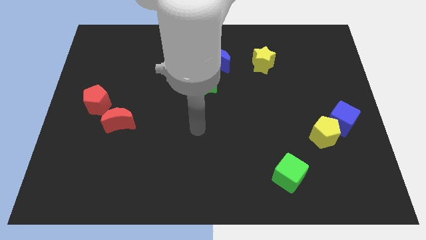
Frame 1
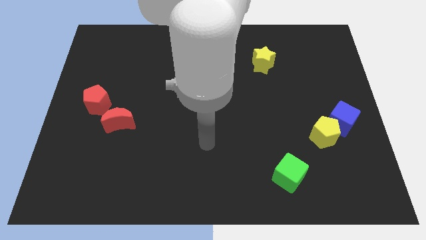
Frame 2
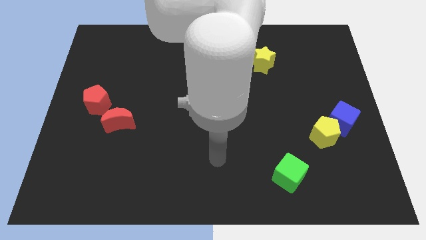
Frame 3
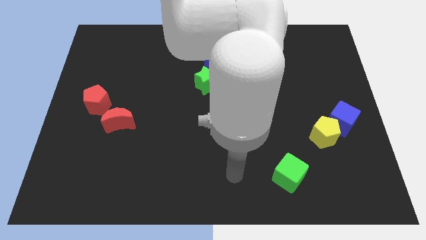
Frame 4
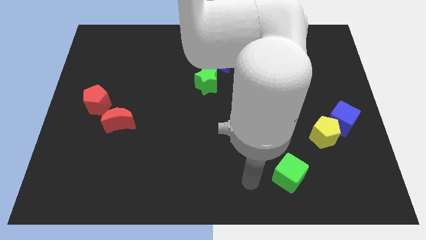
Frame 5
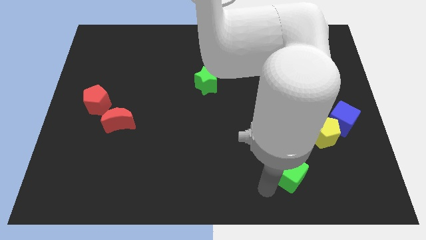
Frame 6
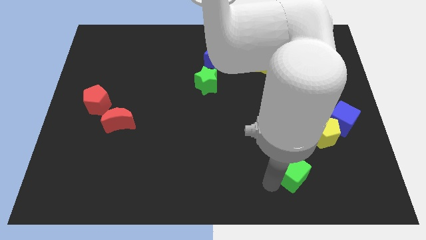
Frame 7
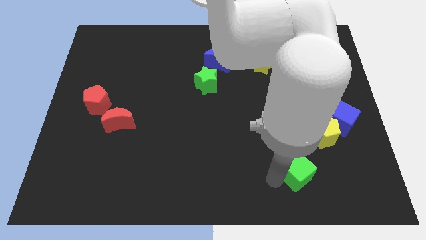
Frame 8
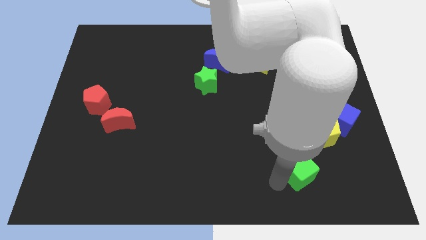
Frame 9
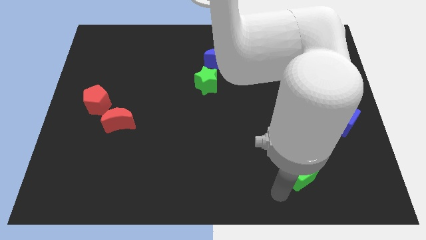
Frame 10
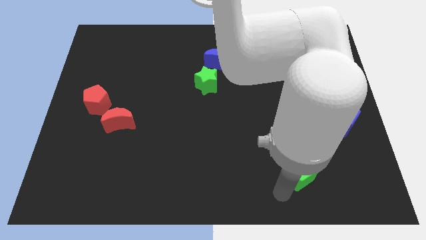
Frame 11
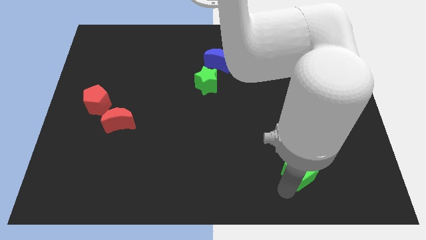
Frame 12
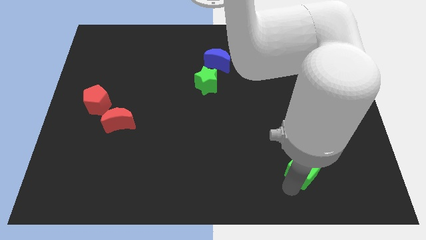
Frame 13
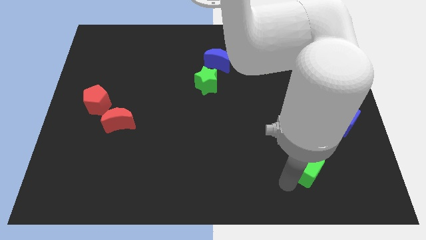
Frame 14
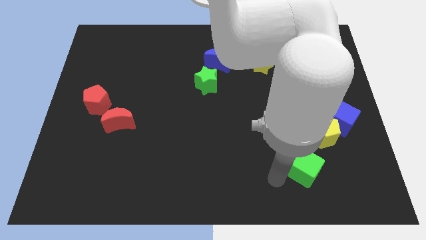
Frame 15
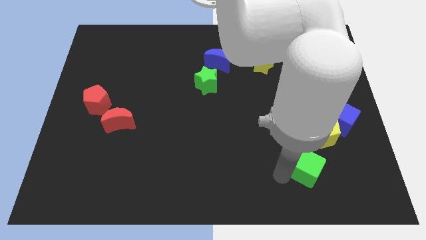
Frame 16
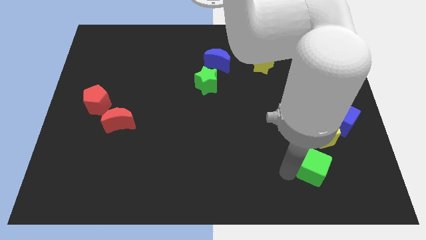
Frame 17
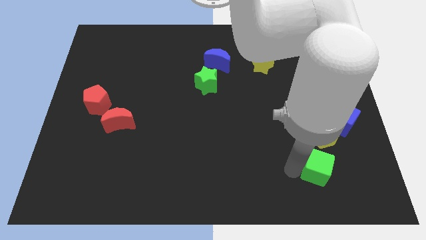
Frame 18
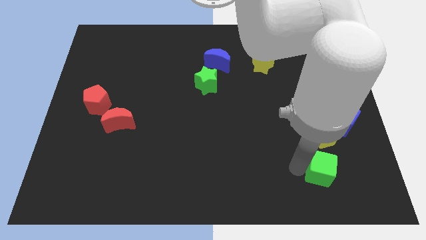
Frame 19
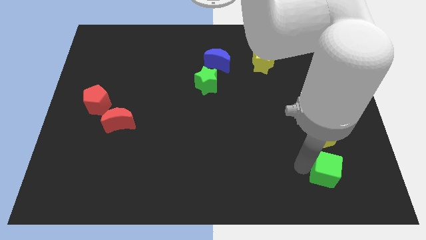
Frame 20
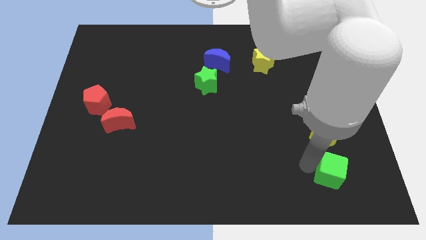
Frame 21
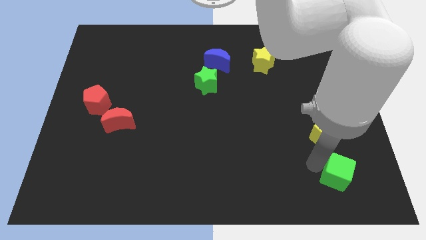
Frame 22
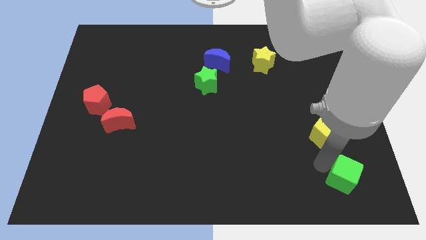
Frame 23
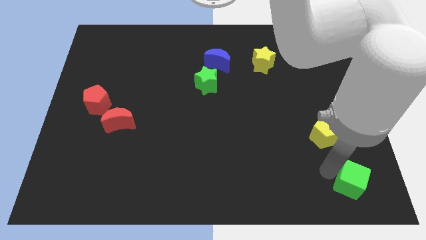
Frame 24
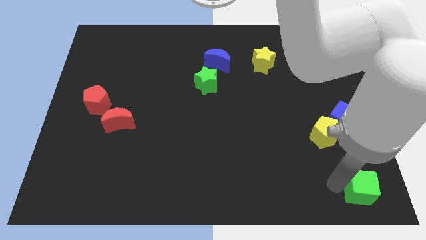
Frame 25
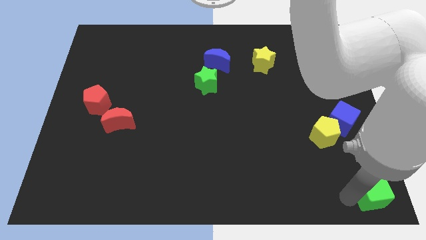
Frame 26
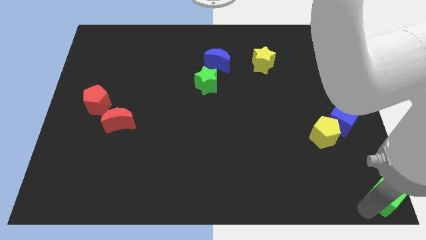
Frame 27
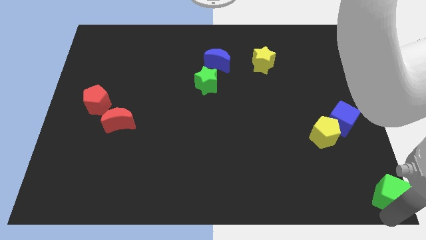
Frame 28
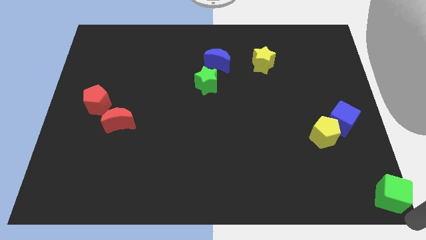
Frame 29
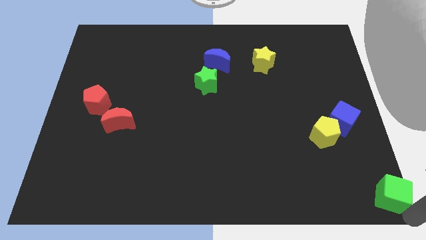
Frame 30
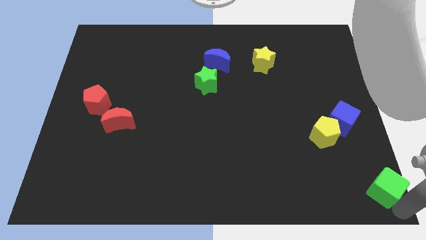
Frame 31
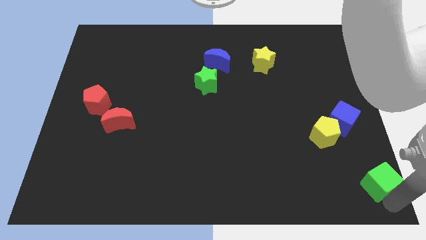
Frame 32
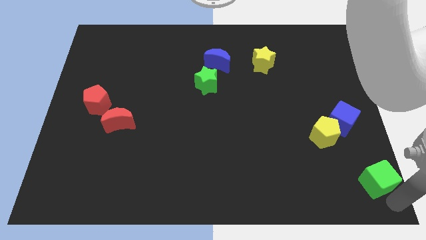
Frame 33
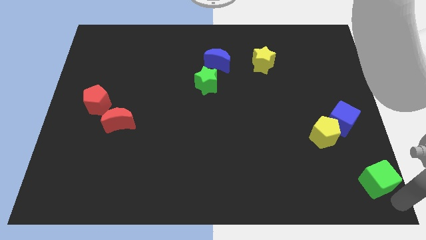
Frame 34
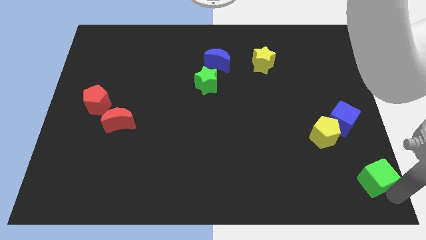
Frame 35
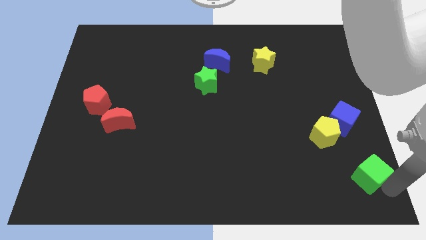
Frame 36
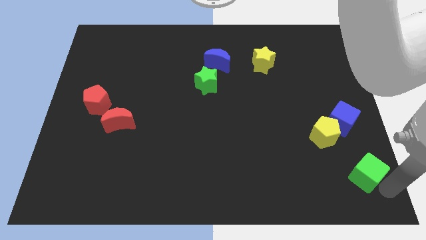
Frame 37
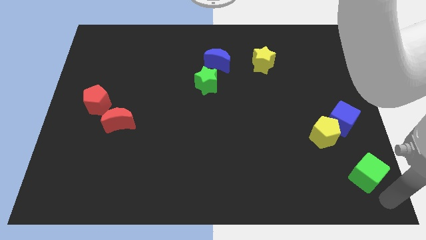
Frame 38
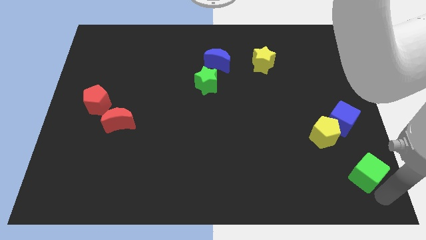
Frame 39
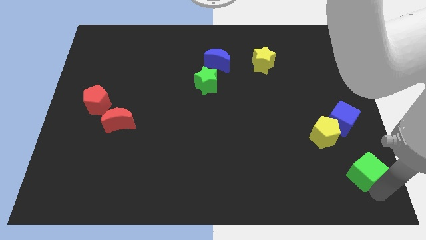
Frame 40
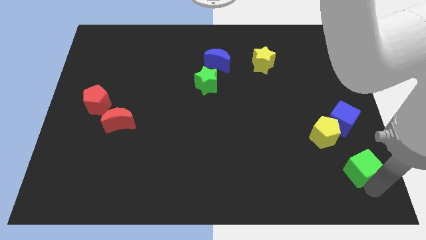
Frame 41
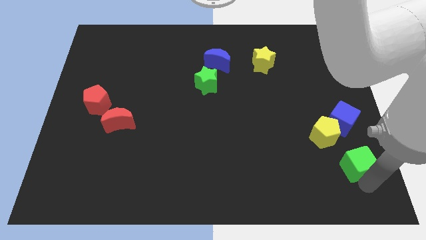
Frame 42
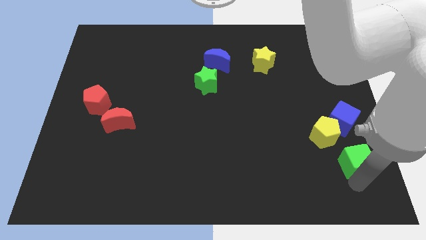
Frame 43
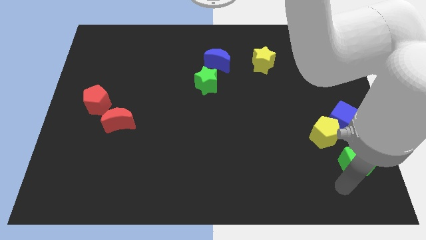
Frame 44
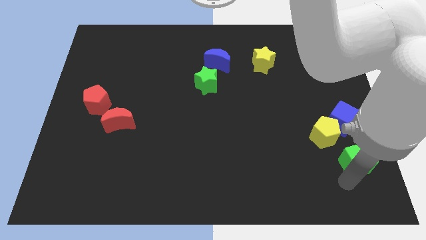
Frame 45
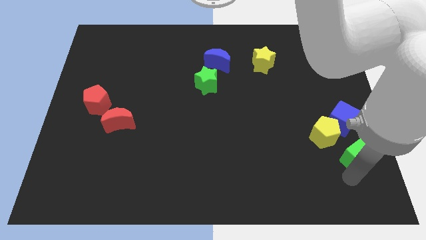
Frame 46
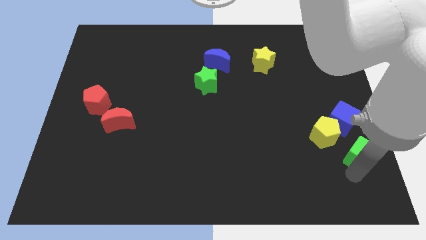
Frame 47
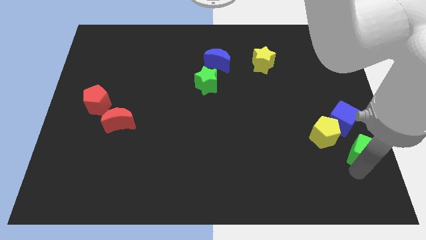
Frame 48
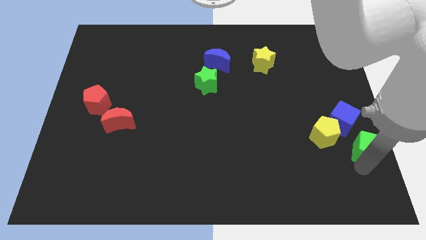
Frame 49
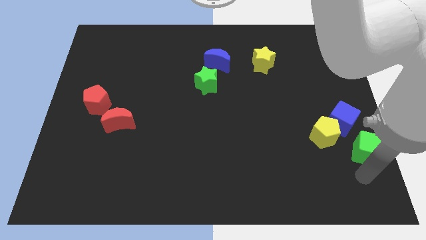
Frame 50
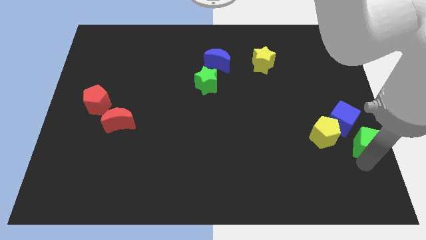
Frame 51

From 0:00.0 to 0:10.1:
move the green cube to the center right

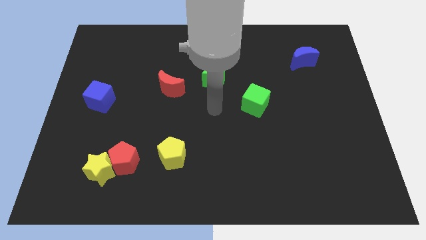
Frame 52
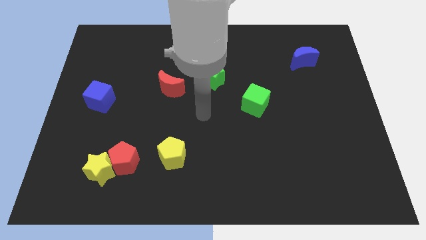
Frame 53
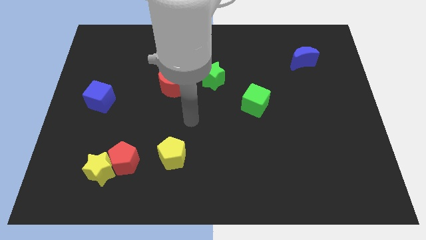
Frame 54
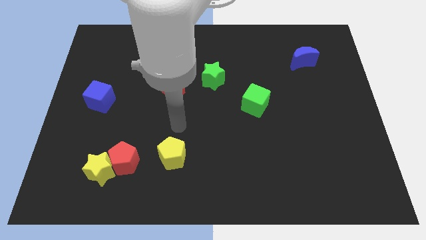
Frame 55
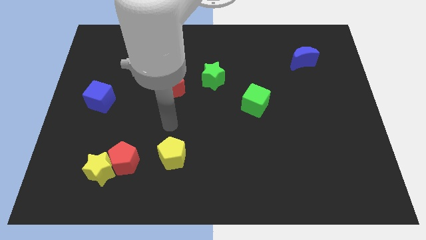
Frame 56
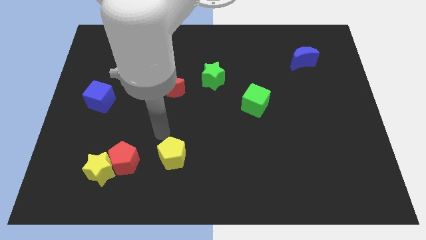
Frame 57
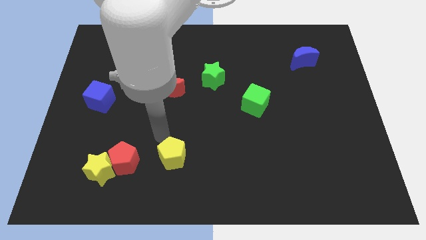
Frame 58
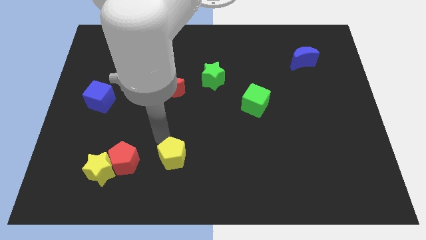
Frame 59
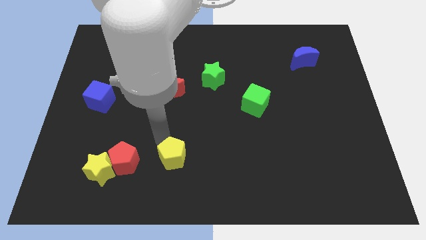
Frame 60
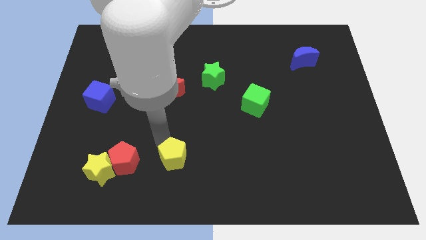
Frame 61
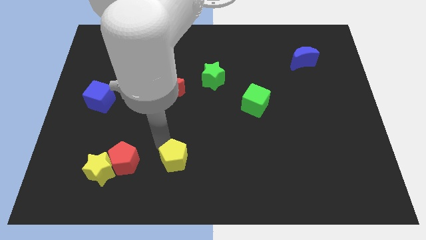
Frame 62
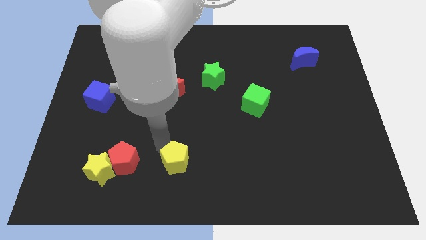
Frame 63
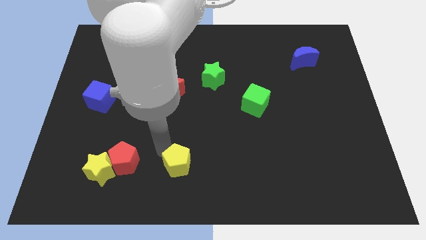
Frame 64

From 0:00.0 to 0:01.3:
slide the yellow pentagon to the bottom
